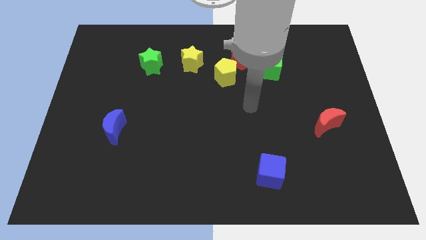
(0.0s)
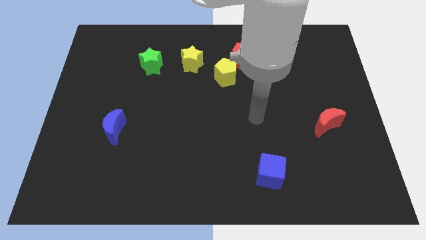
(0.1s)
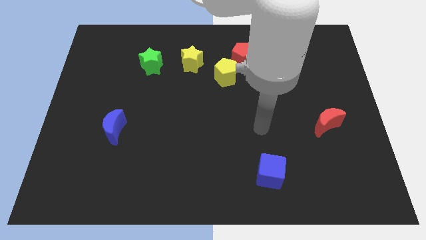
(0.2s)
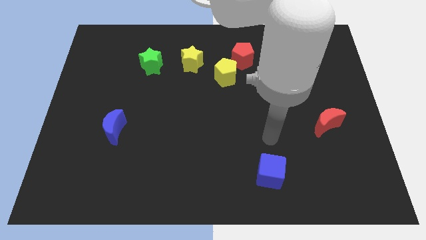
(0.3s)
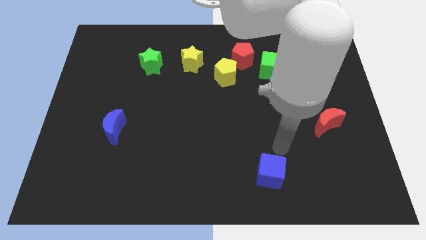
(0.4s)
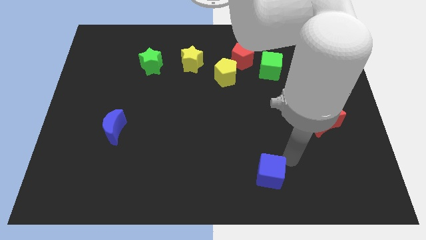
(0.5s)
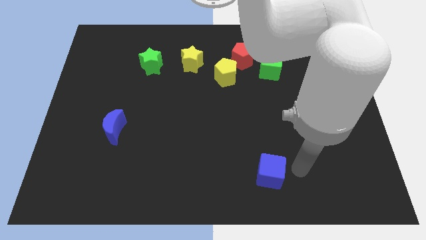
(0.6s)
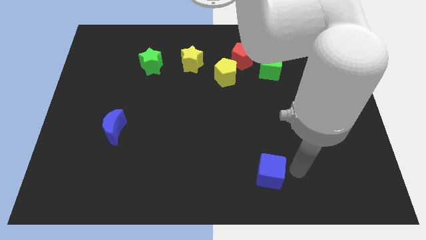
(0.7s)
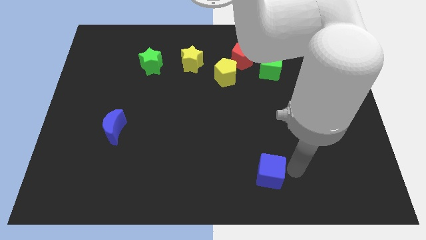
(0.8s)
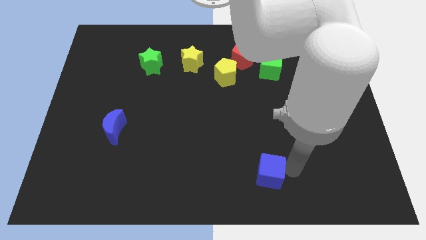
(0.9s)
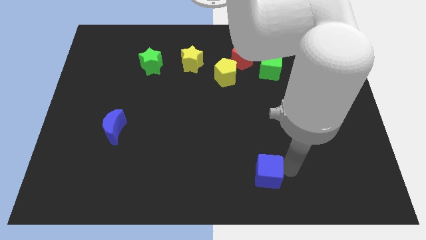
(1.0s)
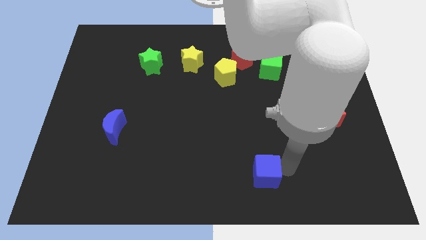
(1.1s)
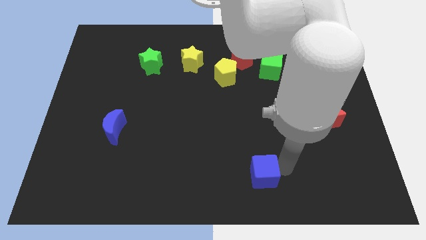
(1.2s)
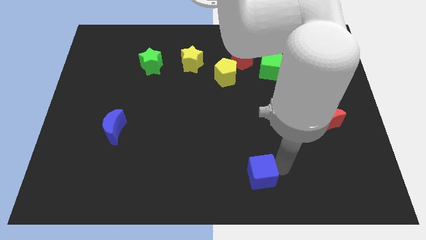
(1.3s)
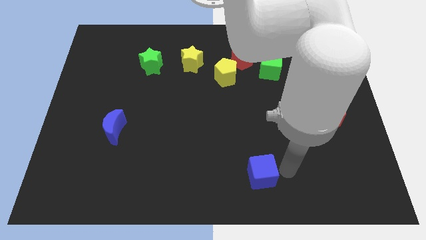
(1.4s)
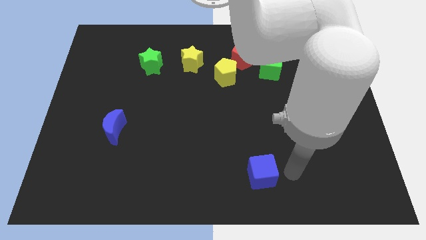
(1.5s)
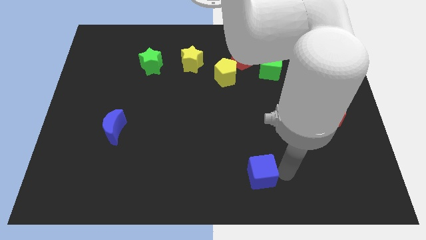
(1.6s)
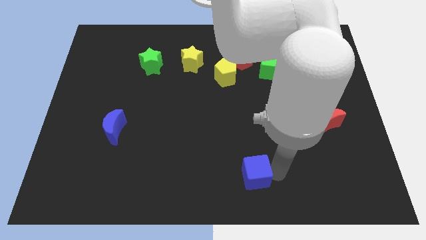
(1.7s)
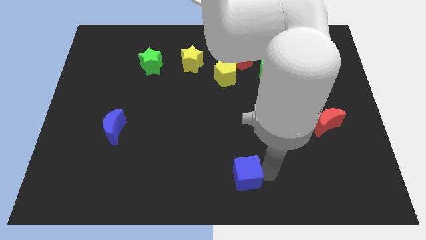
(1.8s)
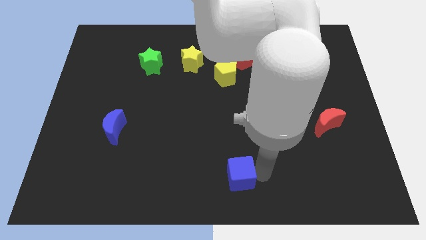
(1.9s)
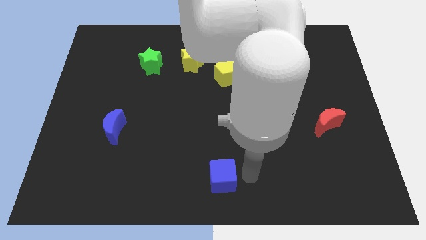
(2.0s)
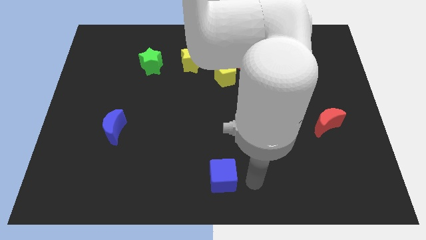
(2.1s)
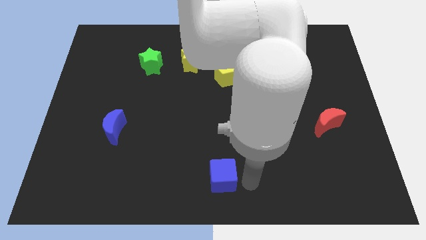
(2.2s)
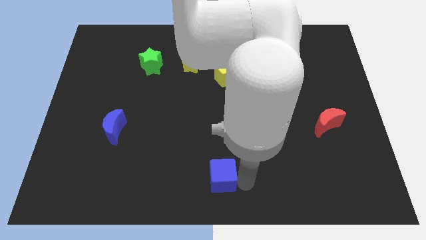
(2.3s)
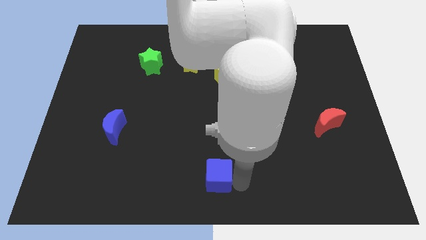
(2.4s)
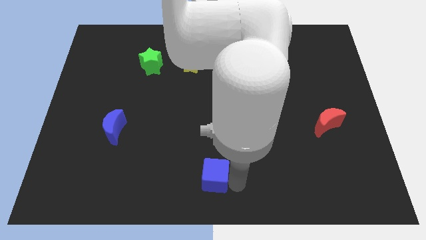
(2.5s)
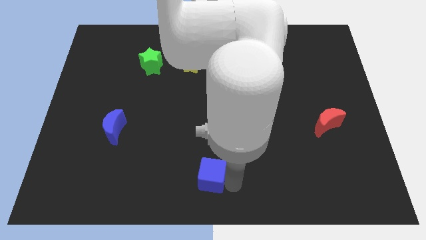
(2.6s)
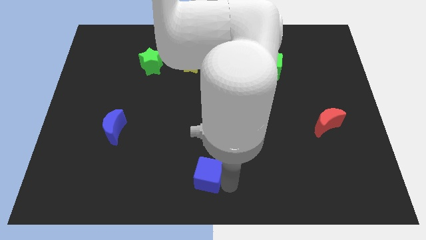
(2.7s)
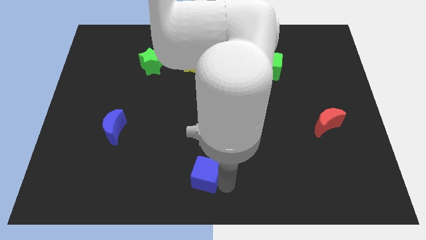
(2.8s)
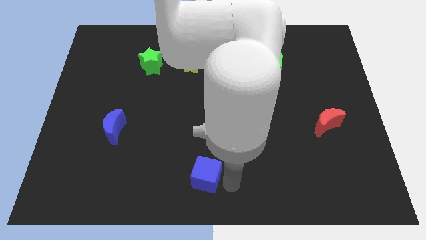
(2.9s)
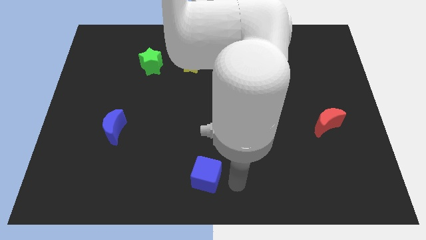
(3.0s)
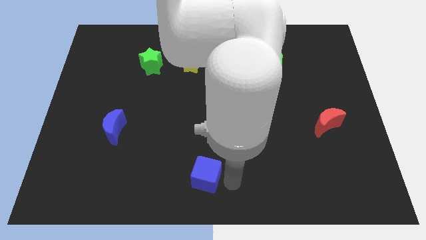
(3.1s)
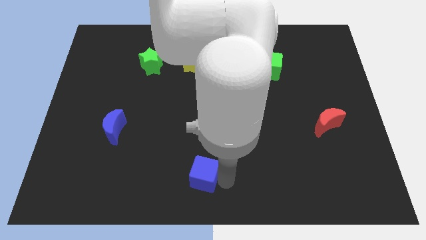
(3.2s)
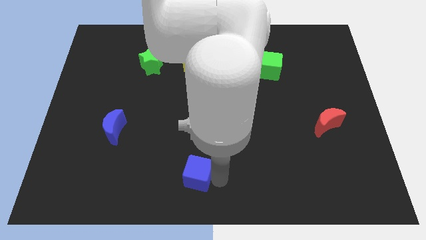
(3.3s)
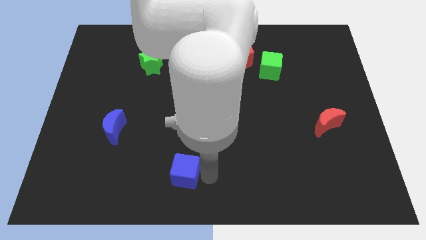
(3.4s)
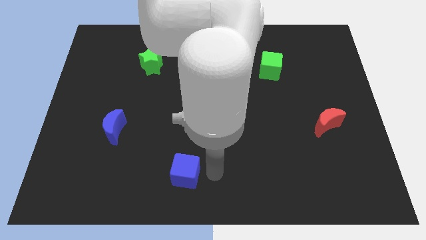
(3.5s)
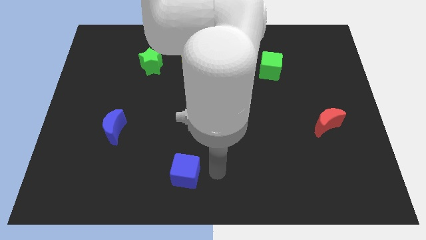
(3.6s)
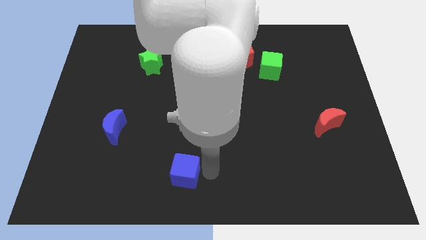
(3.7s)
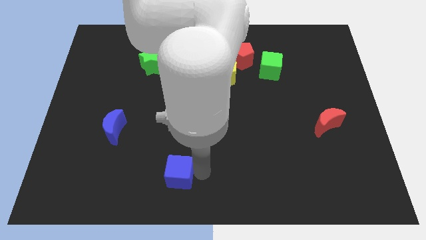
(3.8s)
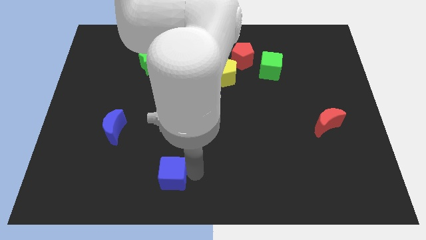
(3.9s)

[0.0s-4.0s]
push the blue cube left

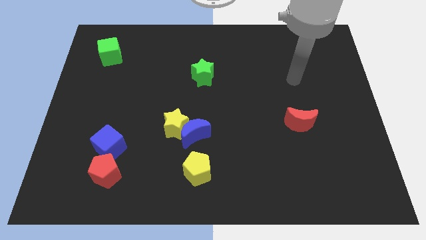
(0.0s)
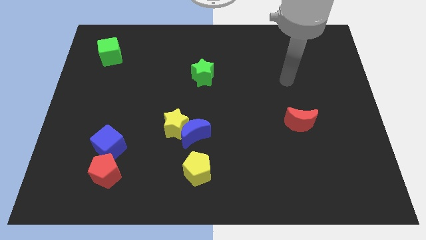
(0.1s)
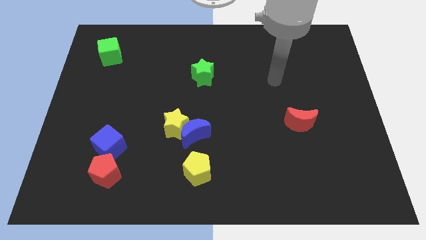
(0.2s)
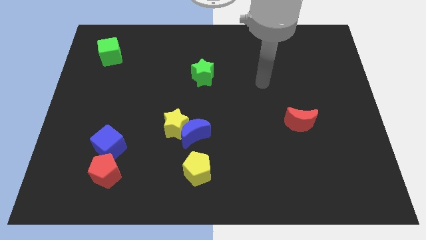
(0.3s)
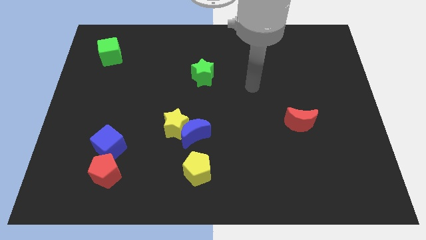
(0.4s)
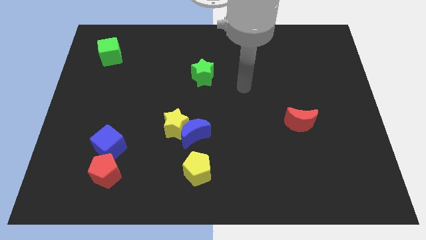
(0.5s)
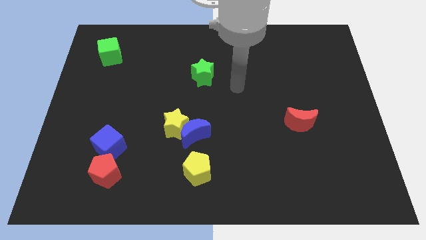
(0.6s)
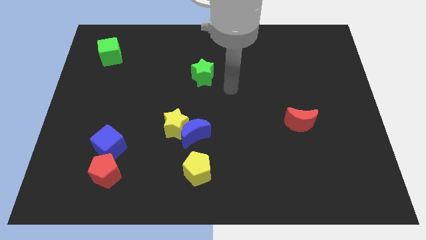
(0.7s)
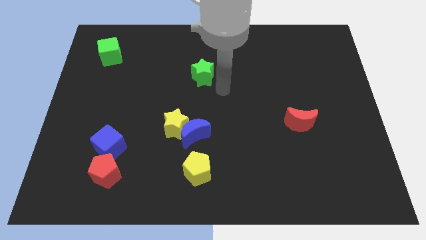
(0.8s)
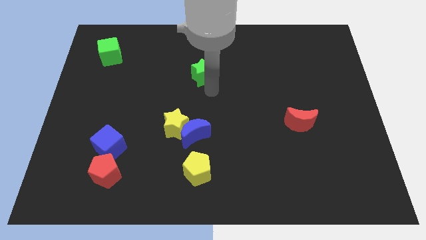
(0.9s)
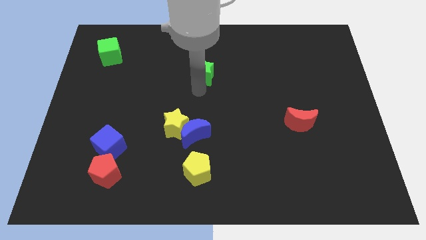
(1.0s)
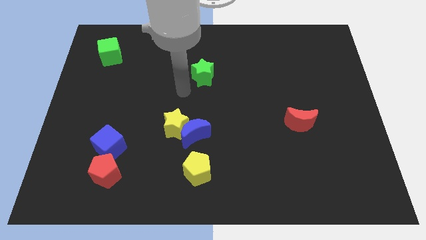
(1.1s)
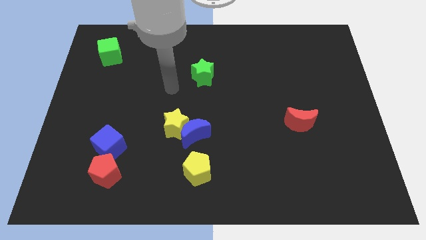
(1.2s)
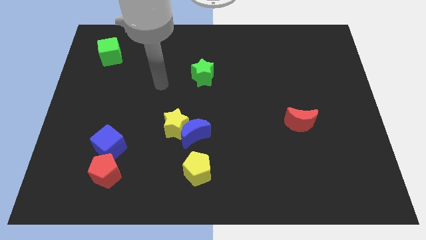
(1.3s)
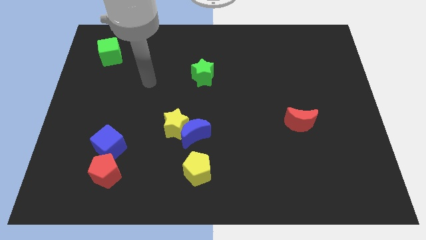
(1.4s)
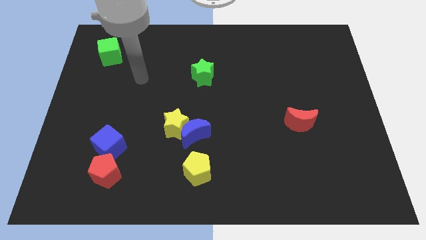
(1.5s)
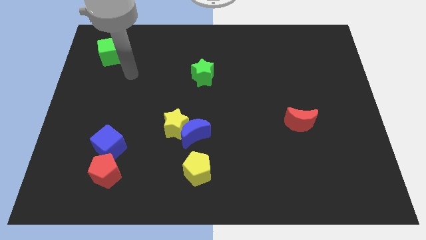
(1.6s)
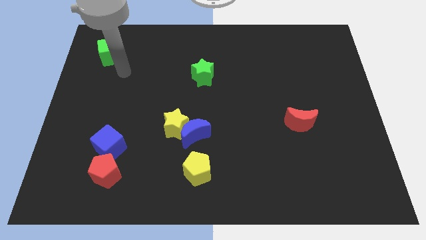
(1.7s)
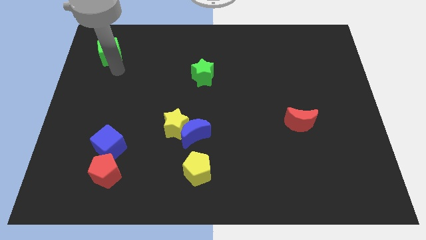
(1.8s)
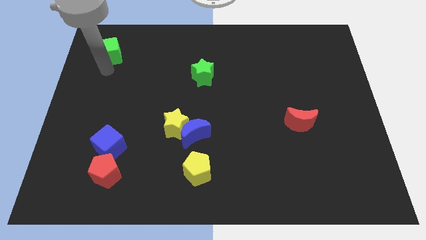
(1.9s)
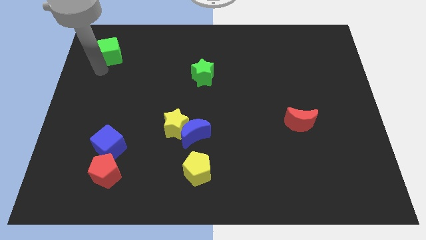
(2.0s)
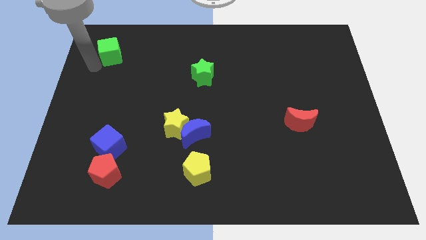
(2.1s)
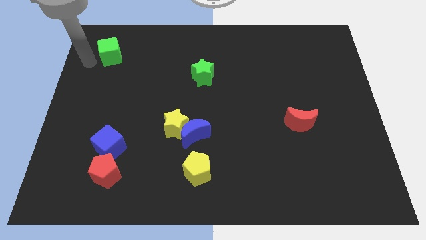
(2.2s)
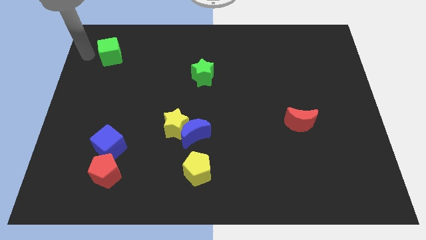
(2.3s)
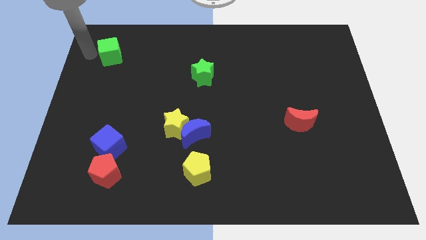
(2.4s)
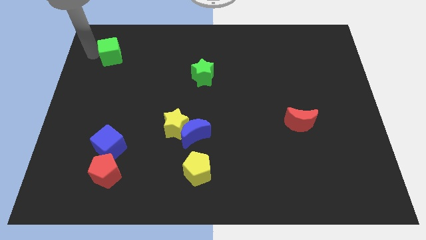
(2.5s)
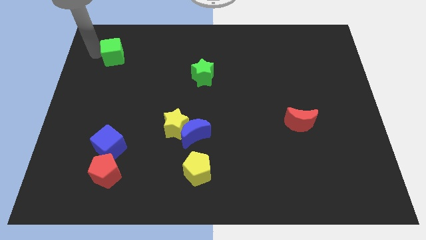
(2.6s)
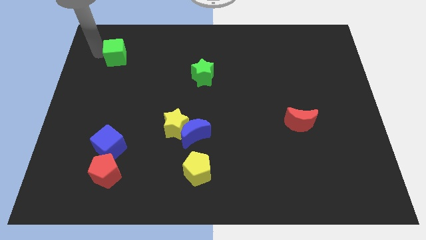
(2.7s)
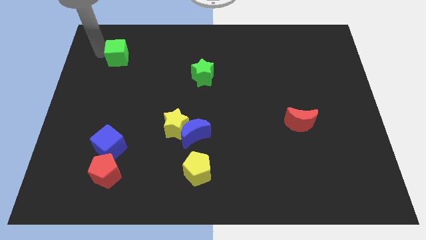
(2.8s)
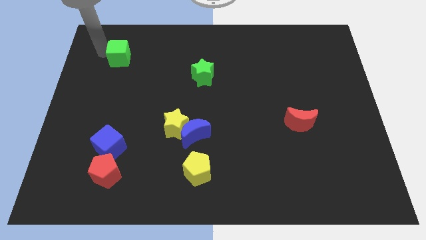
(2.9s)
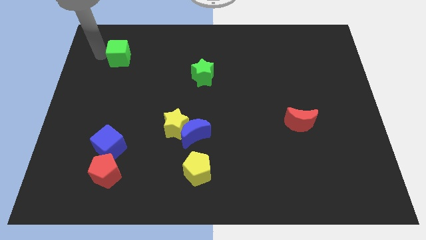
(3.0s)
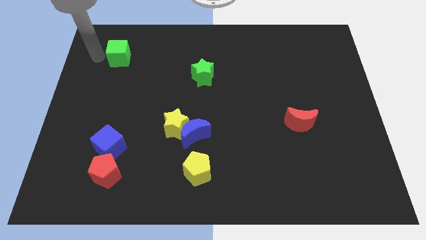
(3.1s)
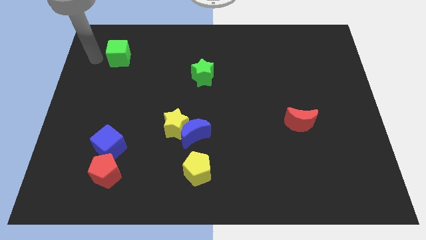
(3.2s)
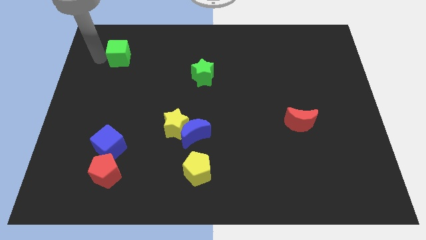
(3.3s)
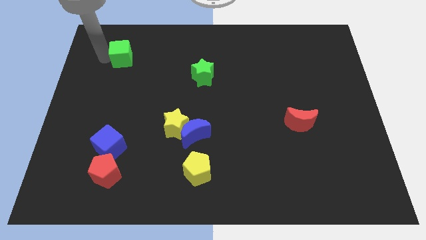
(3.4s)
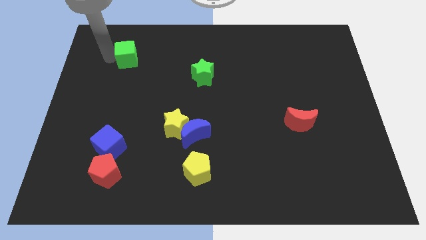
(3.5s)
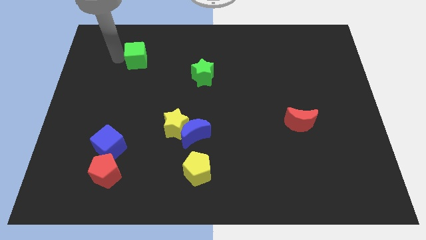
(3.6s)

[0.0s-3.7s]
push the green cube right somewhat

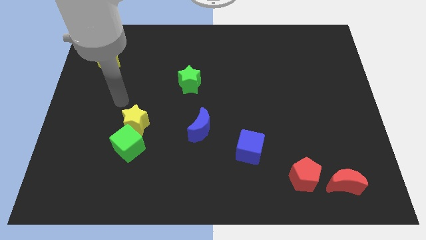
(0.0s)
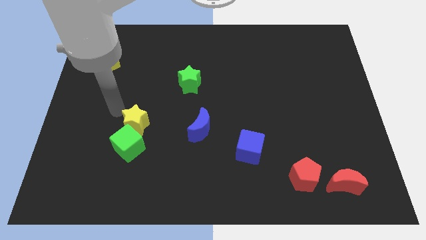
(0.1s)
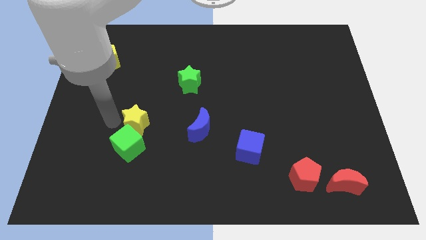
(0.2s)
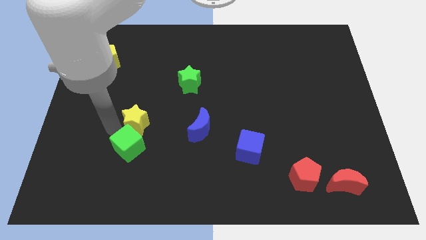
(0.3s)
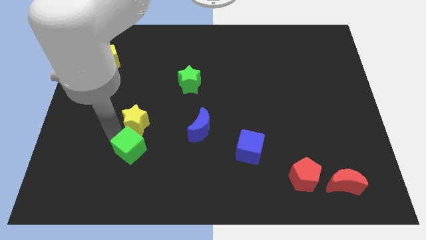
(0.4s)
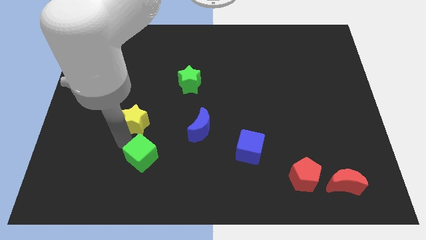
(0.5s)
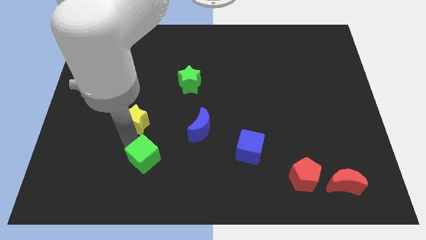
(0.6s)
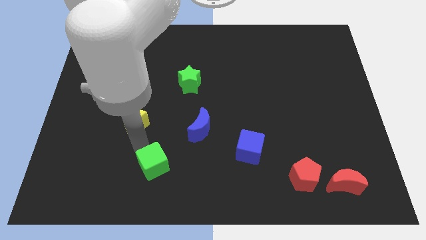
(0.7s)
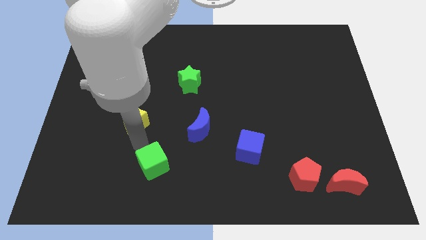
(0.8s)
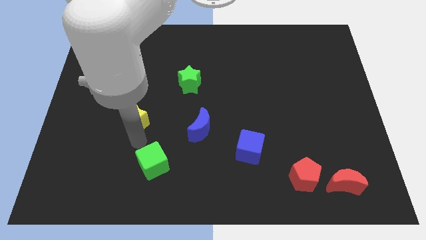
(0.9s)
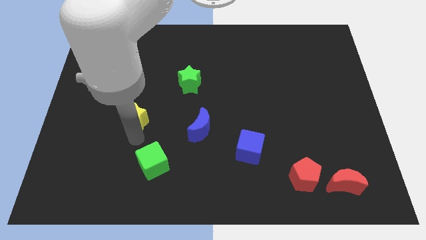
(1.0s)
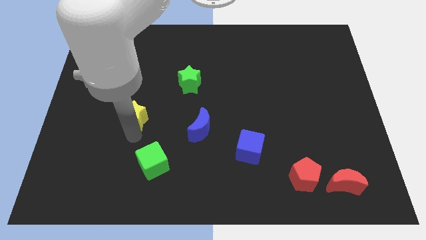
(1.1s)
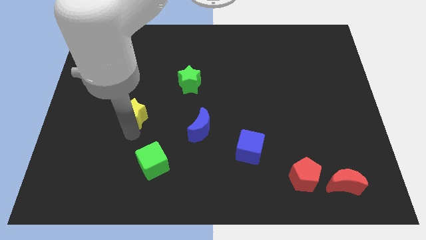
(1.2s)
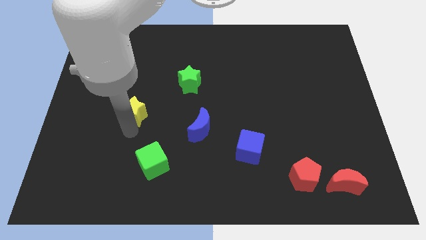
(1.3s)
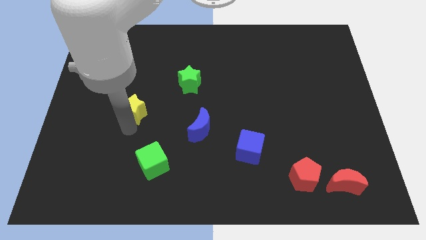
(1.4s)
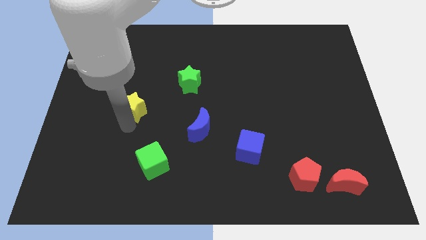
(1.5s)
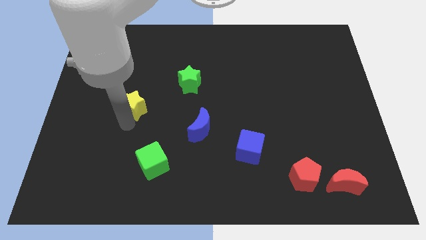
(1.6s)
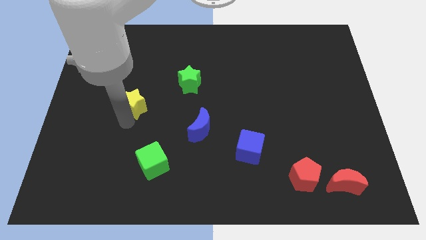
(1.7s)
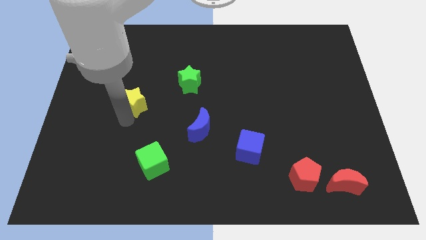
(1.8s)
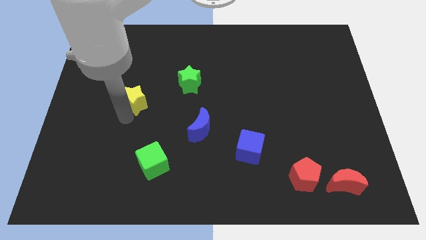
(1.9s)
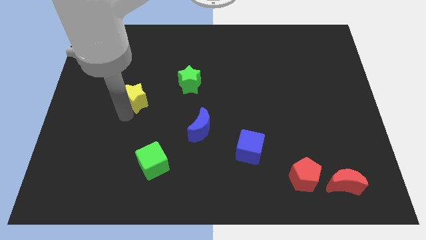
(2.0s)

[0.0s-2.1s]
slide the yellow star a bit upwards
